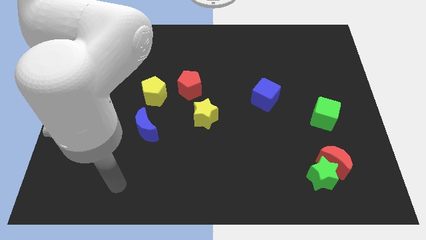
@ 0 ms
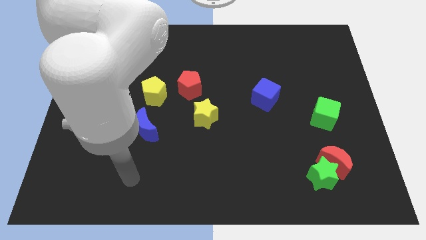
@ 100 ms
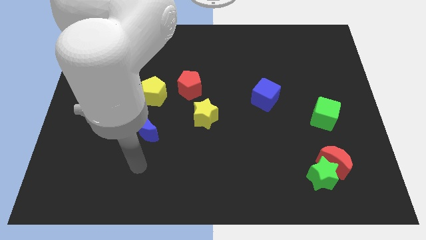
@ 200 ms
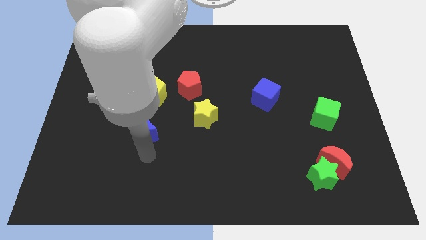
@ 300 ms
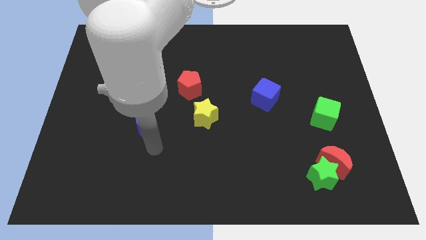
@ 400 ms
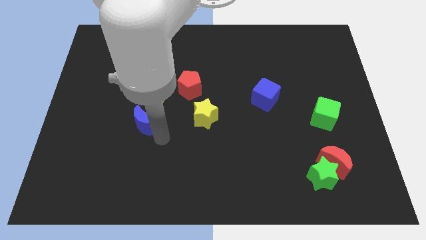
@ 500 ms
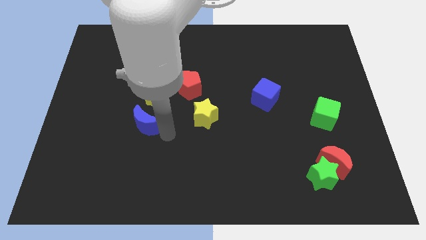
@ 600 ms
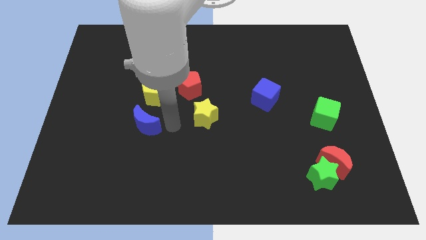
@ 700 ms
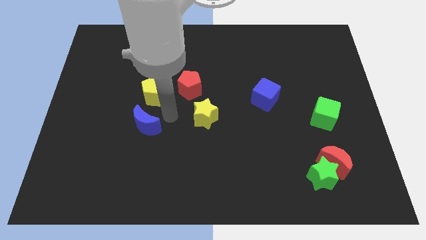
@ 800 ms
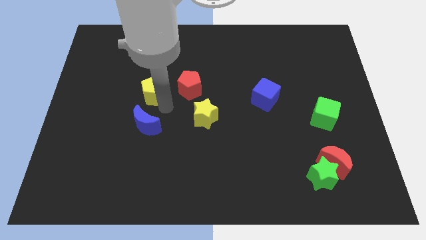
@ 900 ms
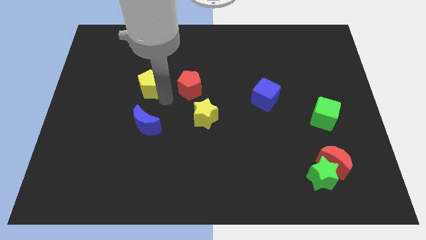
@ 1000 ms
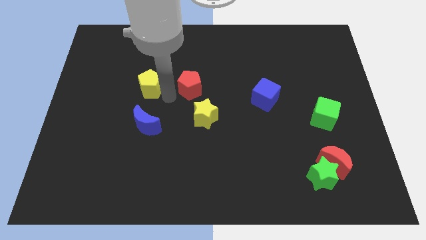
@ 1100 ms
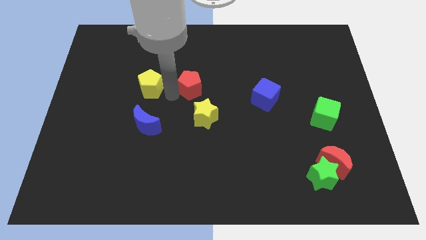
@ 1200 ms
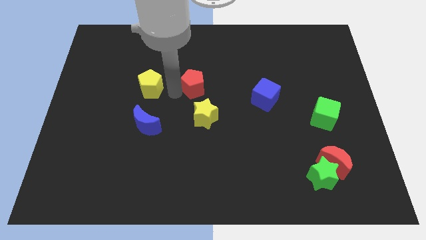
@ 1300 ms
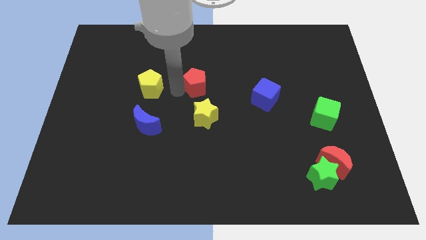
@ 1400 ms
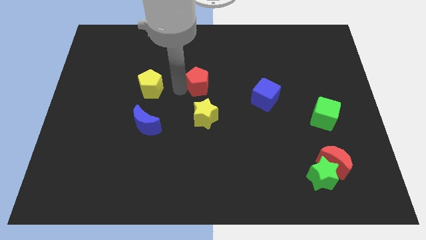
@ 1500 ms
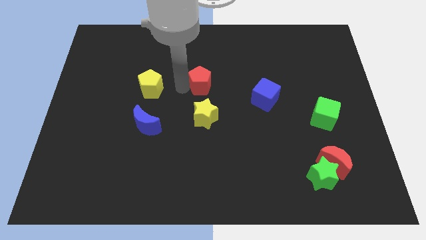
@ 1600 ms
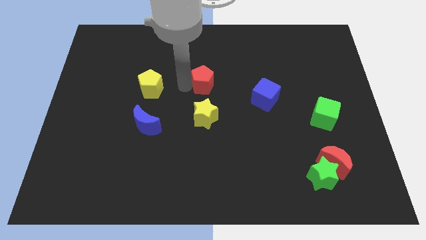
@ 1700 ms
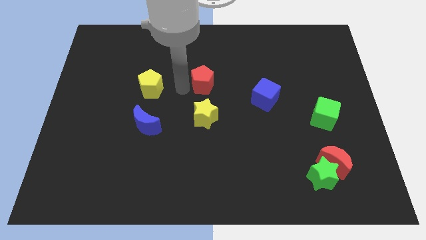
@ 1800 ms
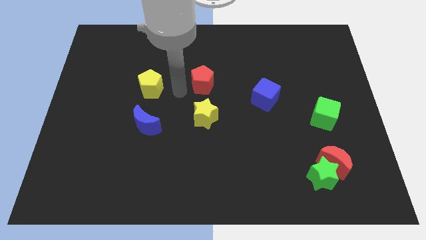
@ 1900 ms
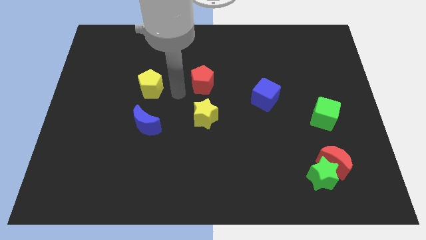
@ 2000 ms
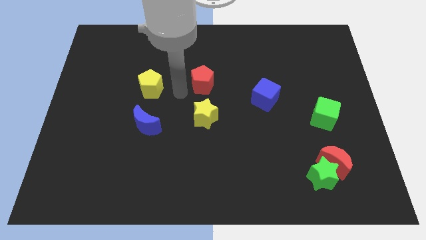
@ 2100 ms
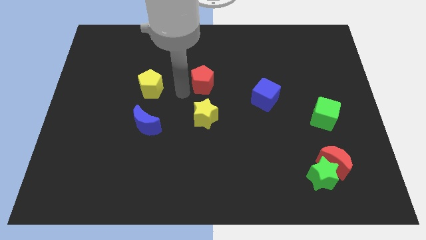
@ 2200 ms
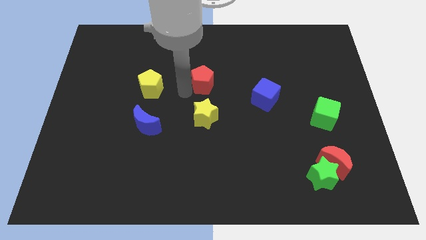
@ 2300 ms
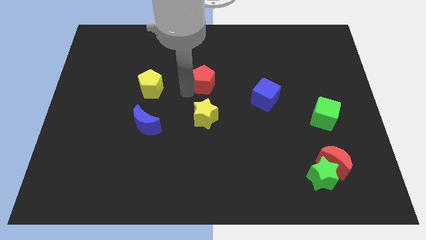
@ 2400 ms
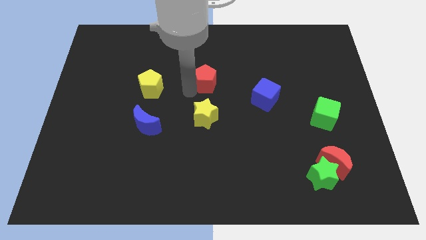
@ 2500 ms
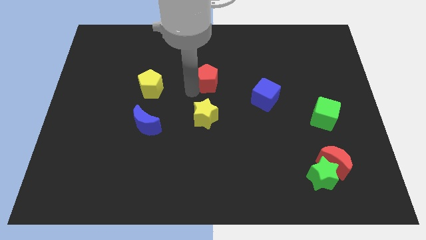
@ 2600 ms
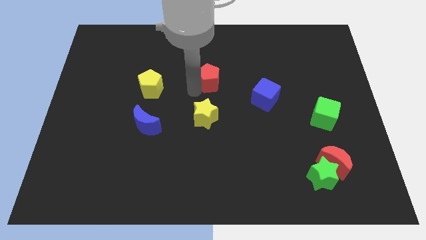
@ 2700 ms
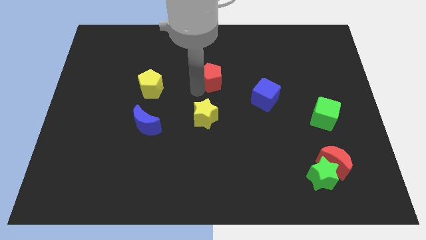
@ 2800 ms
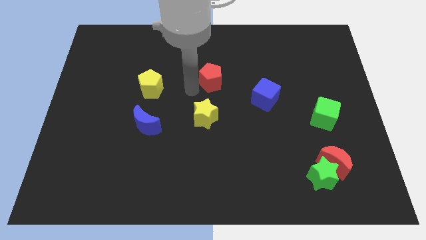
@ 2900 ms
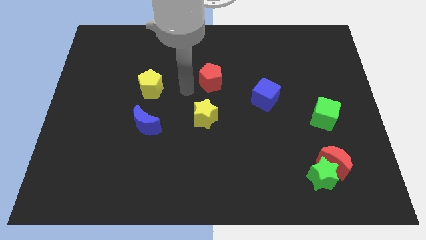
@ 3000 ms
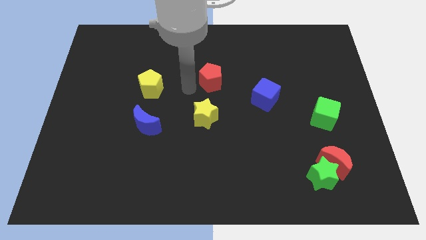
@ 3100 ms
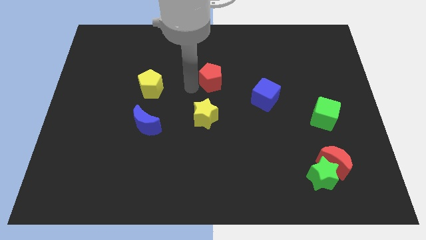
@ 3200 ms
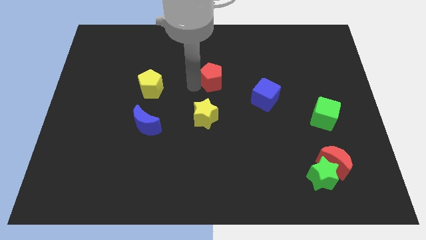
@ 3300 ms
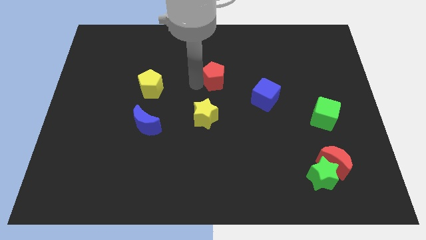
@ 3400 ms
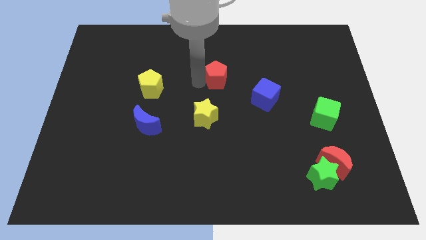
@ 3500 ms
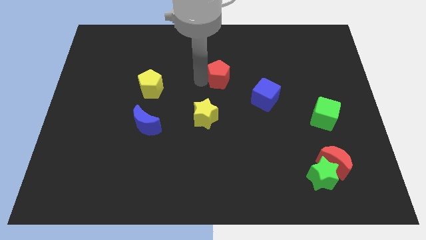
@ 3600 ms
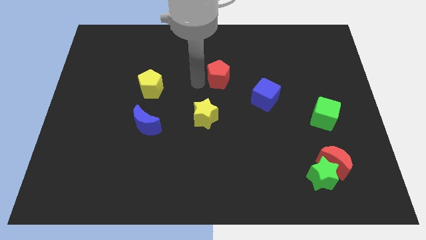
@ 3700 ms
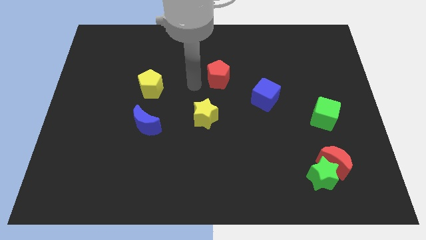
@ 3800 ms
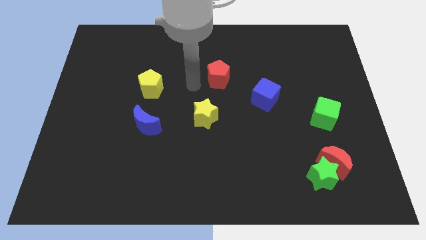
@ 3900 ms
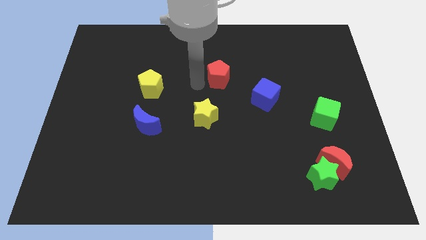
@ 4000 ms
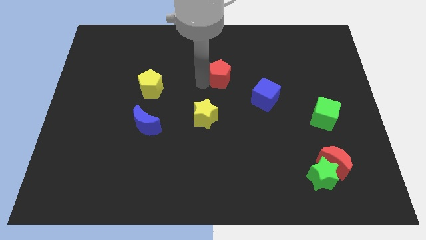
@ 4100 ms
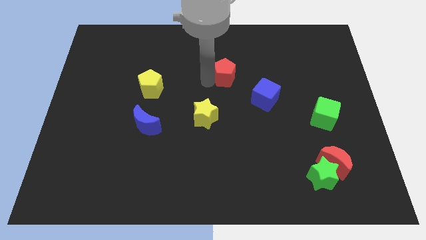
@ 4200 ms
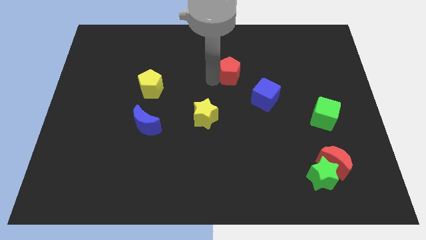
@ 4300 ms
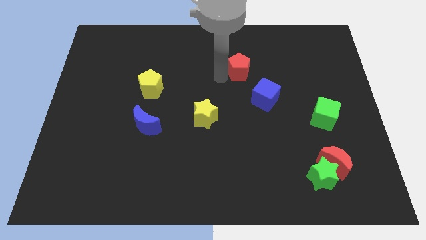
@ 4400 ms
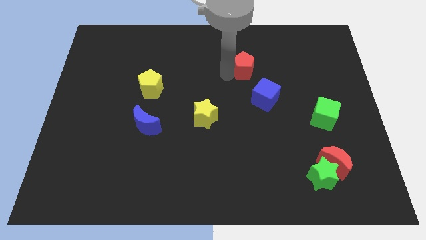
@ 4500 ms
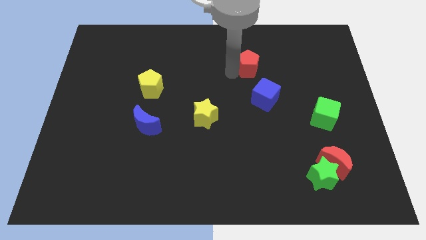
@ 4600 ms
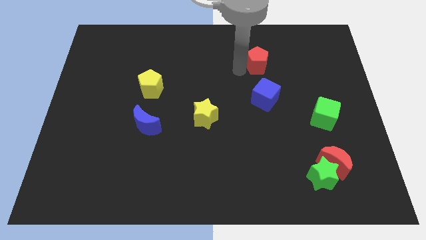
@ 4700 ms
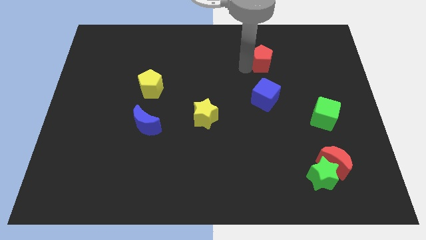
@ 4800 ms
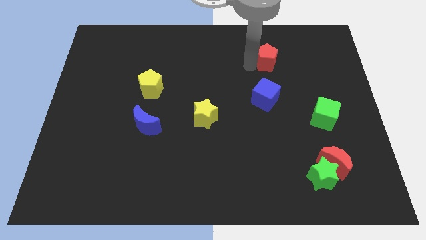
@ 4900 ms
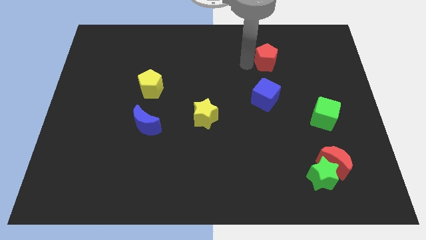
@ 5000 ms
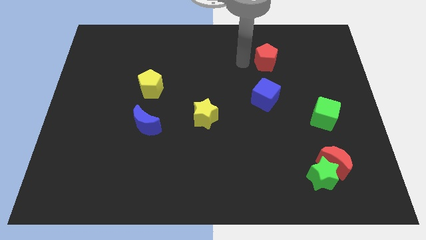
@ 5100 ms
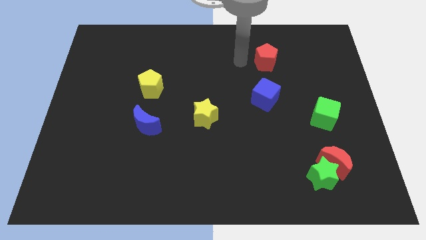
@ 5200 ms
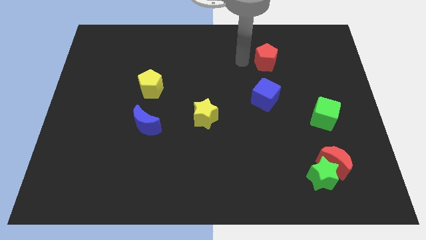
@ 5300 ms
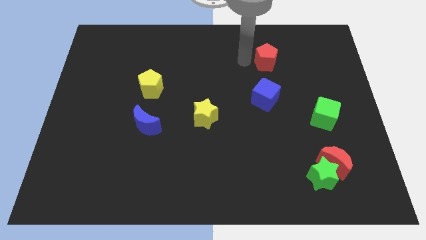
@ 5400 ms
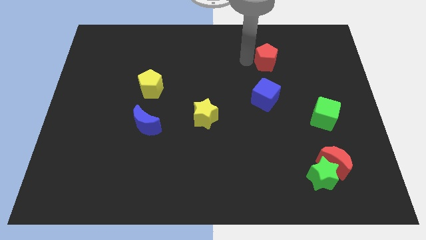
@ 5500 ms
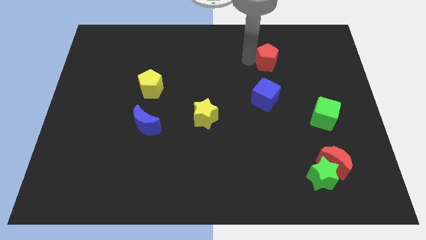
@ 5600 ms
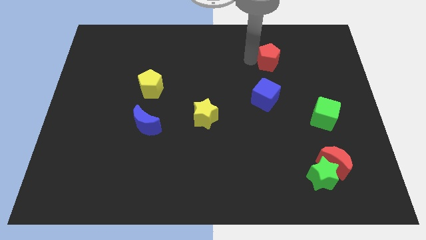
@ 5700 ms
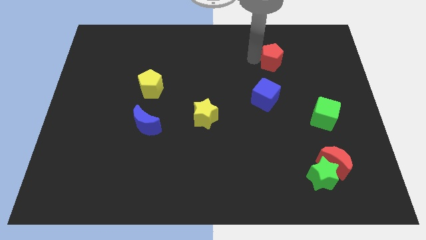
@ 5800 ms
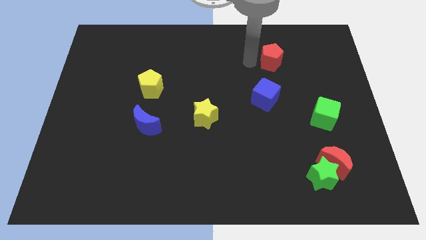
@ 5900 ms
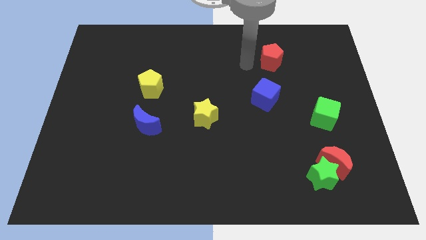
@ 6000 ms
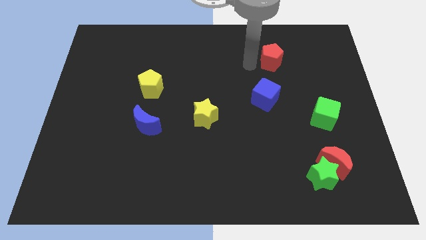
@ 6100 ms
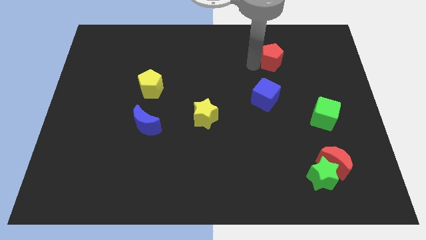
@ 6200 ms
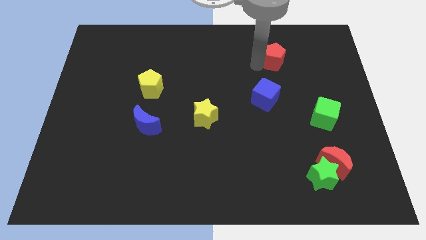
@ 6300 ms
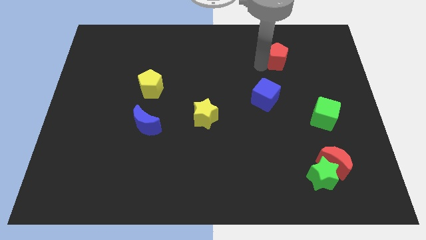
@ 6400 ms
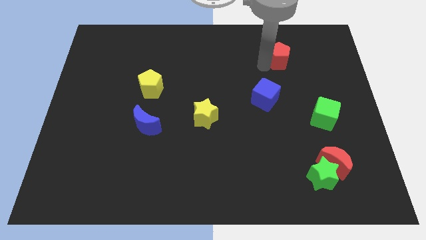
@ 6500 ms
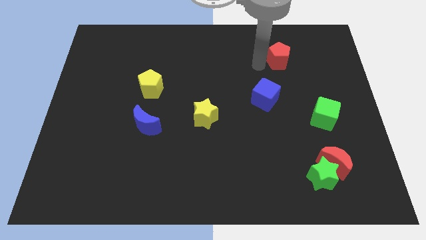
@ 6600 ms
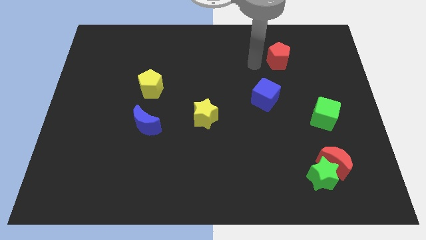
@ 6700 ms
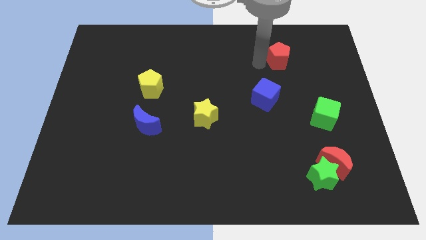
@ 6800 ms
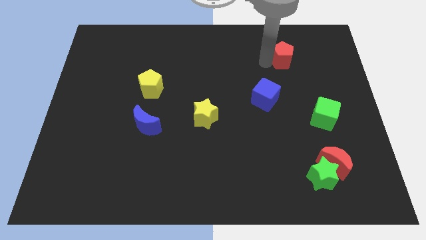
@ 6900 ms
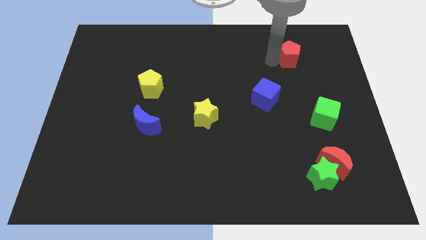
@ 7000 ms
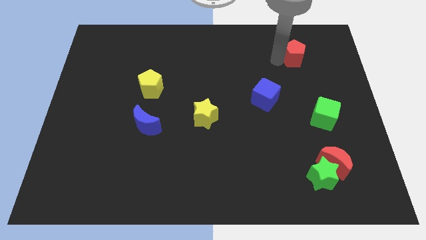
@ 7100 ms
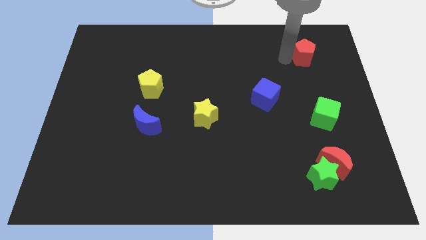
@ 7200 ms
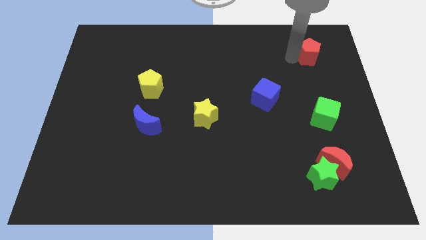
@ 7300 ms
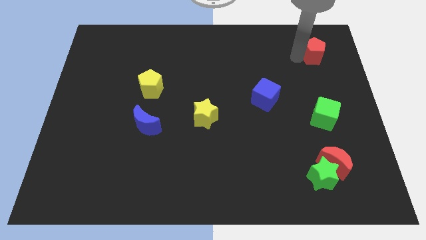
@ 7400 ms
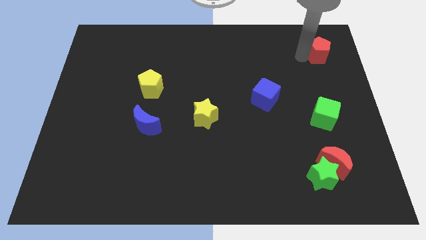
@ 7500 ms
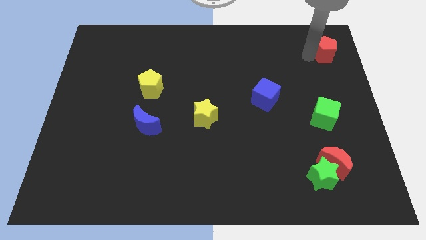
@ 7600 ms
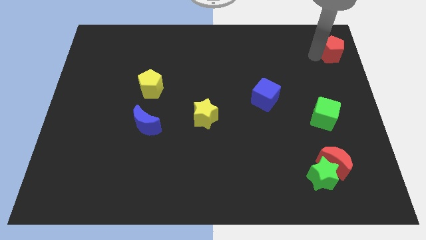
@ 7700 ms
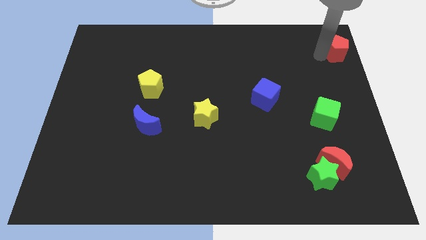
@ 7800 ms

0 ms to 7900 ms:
put the red pentagon to the top right of the board
